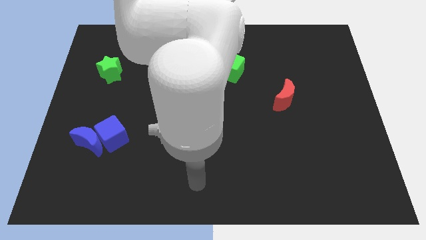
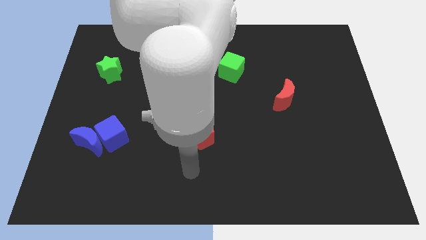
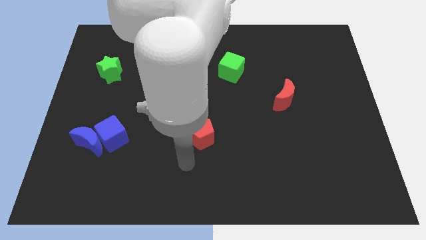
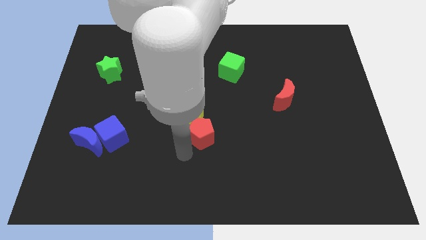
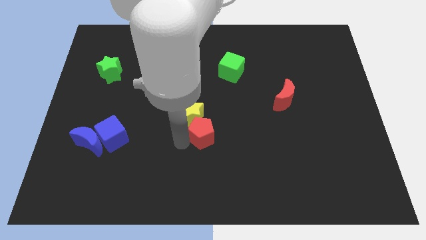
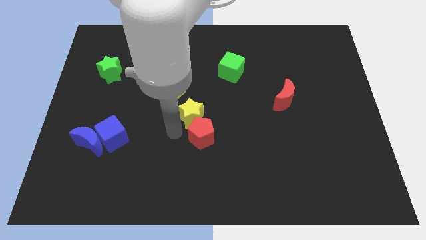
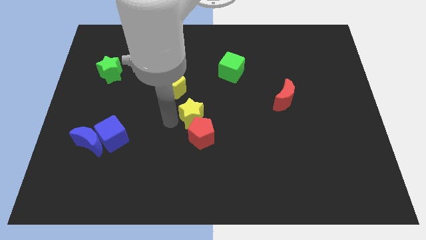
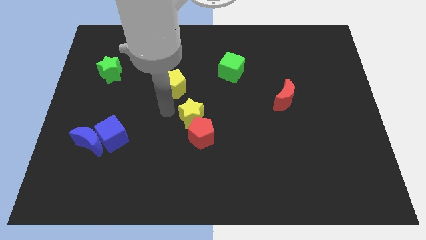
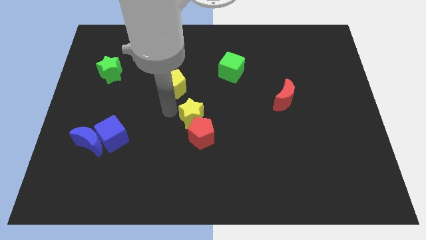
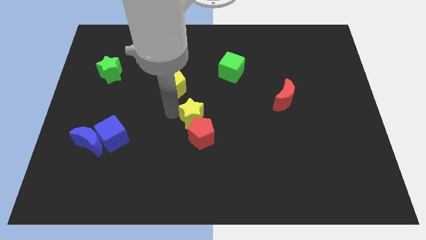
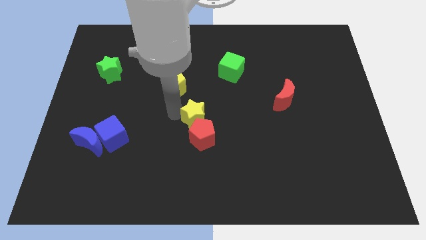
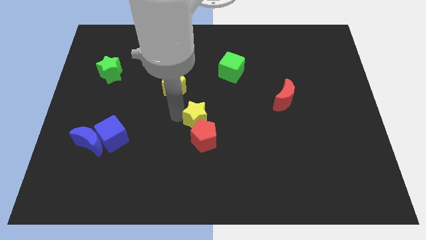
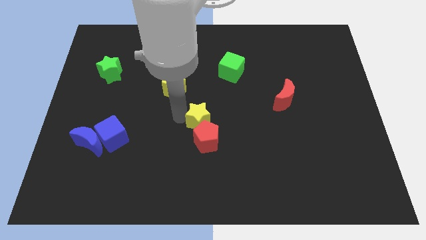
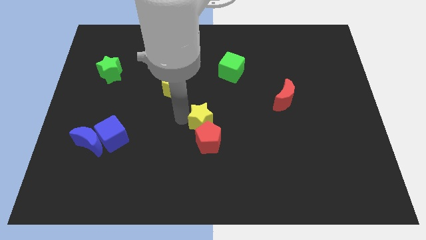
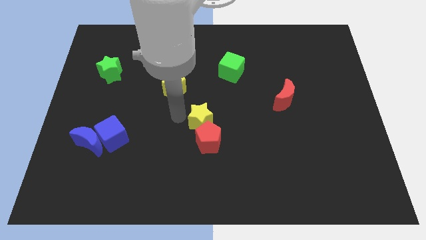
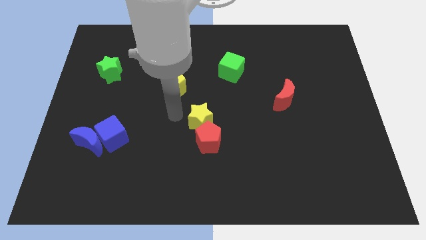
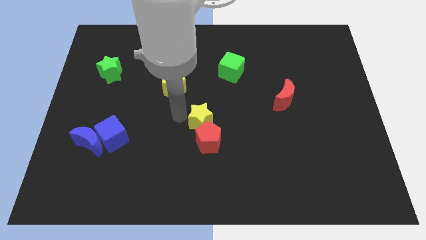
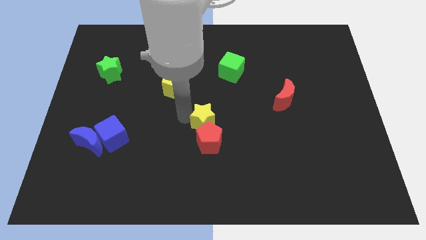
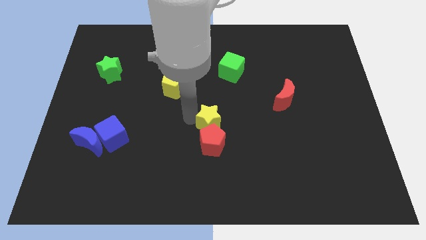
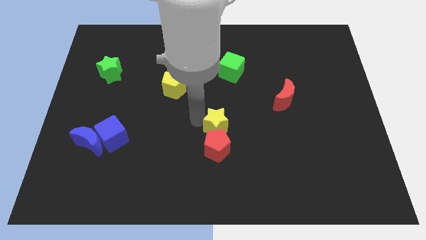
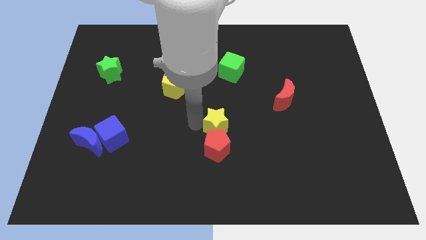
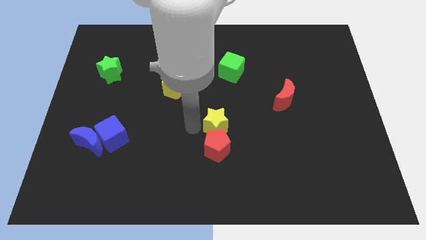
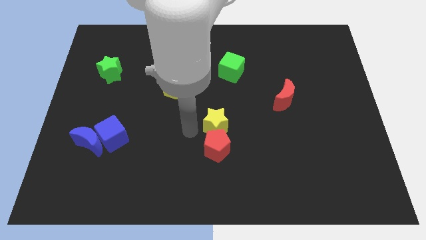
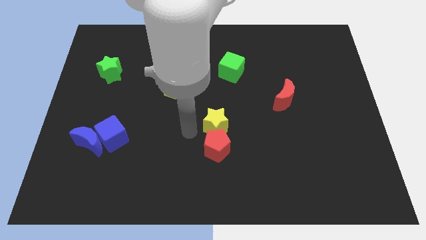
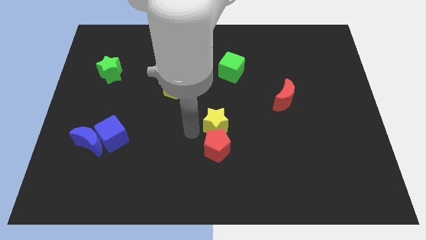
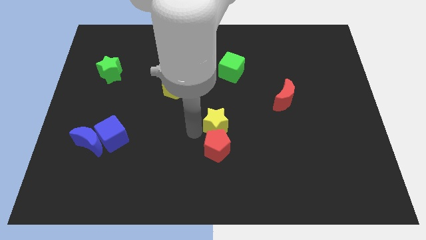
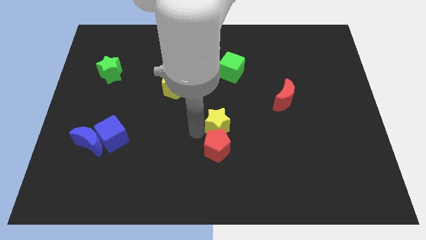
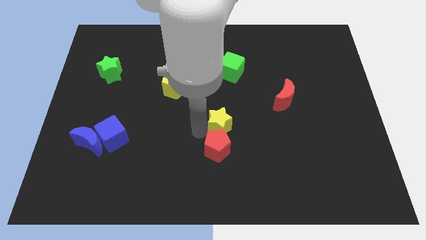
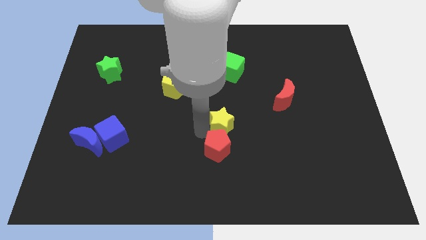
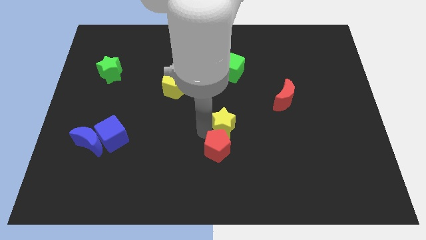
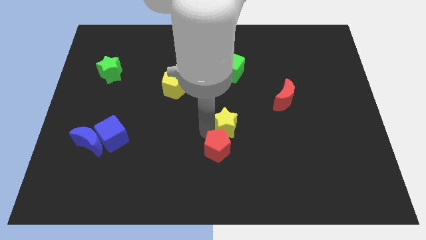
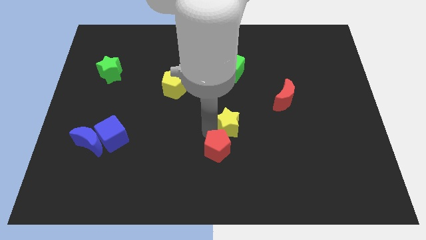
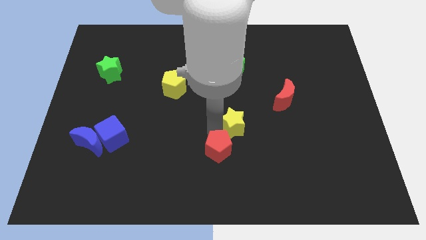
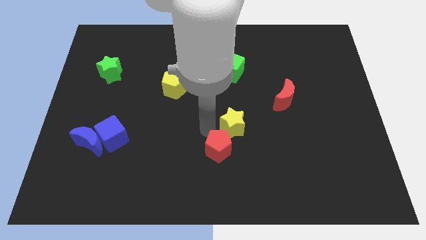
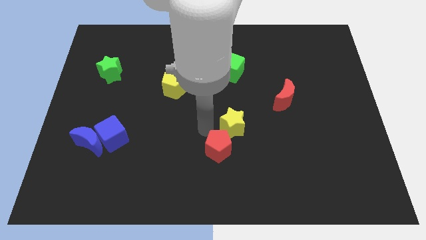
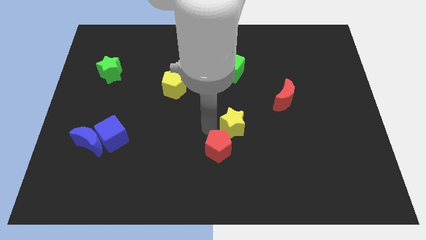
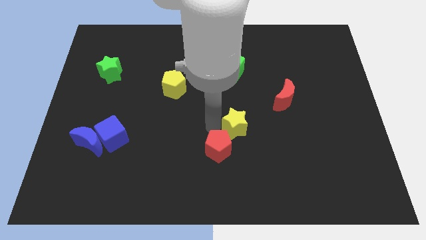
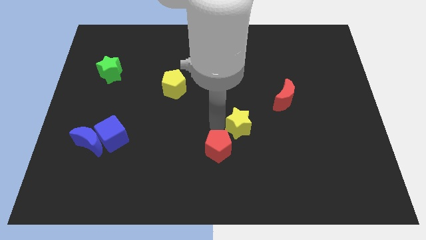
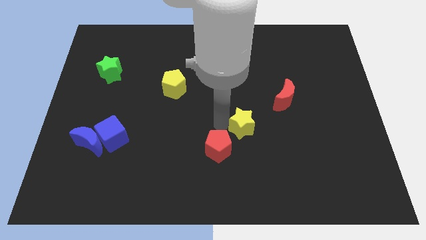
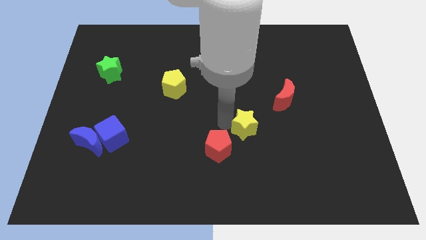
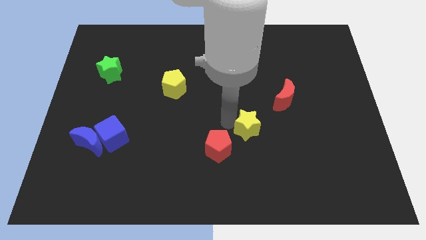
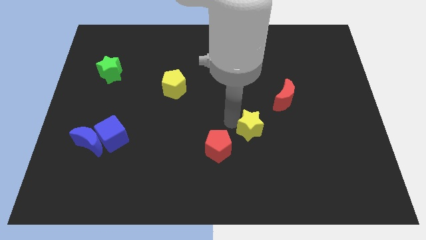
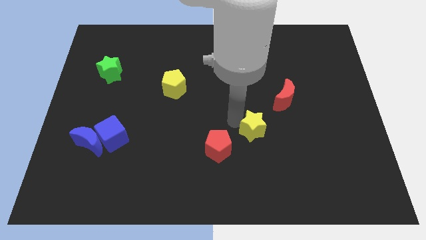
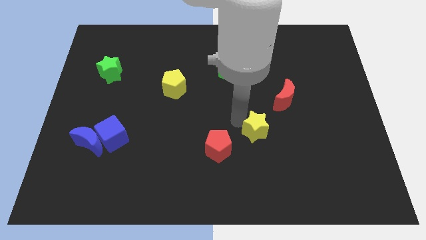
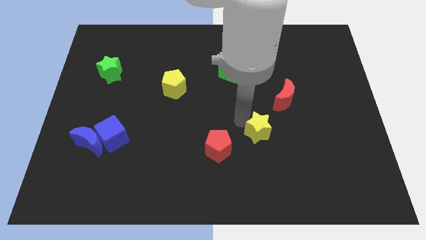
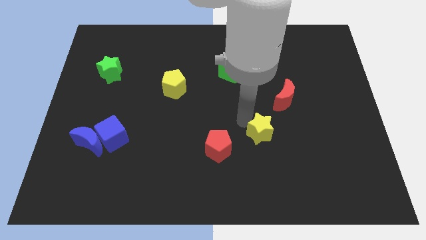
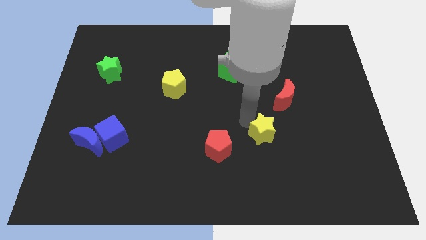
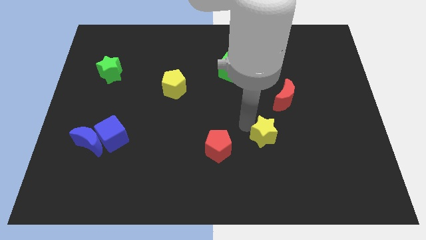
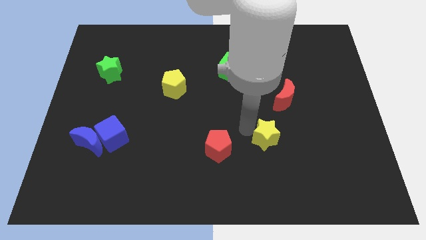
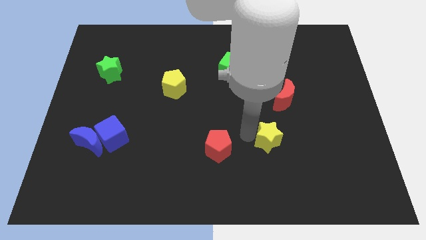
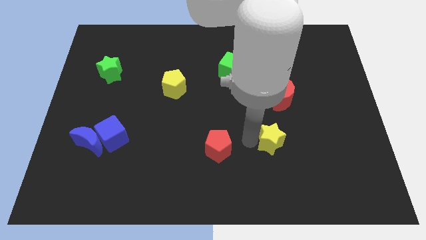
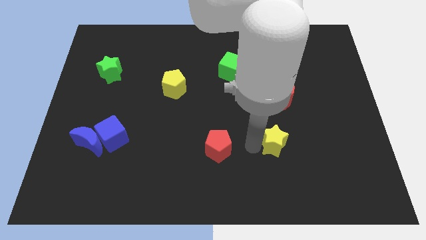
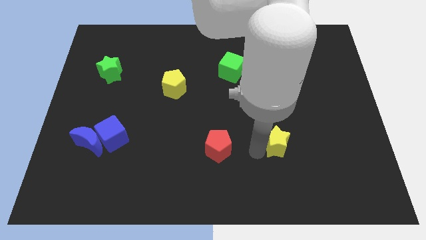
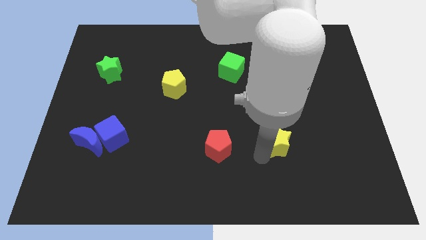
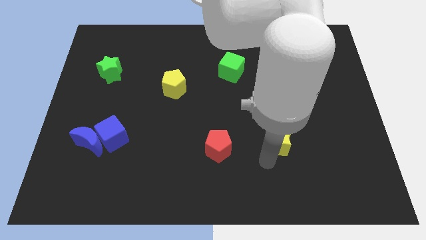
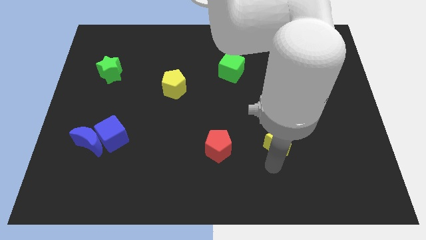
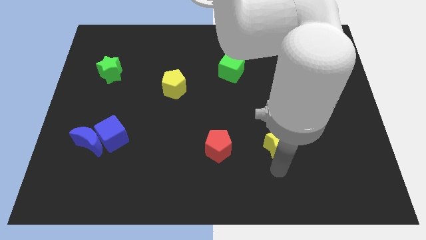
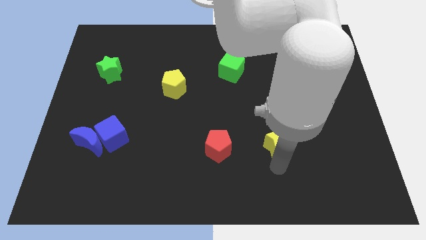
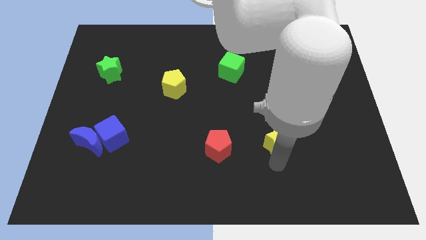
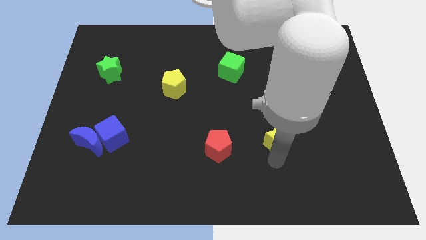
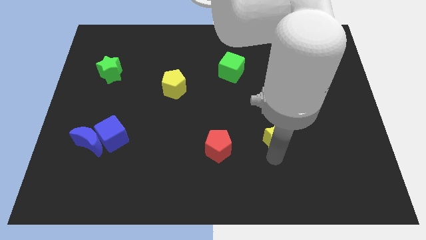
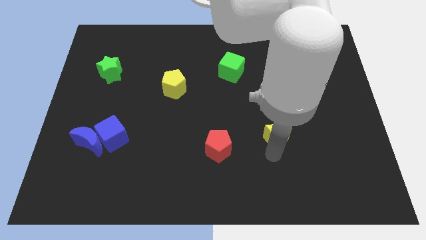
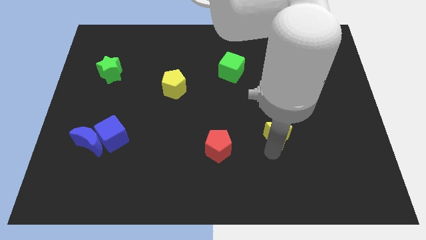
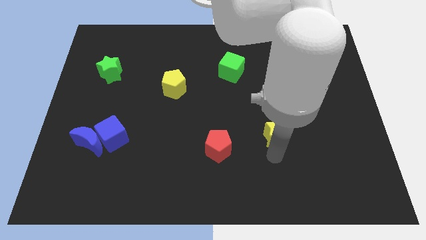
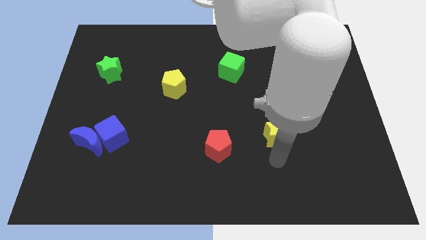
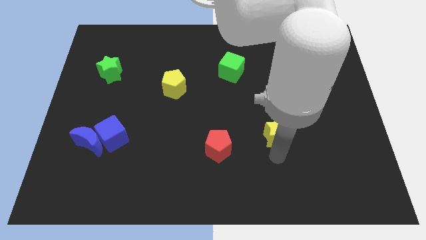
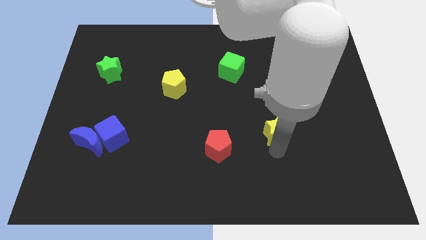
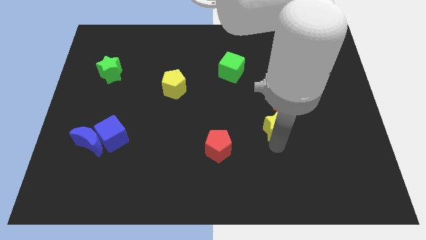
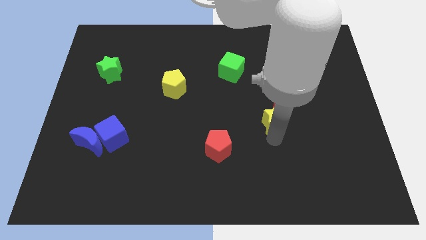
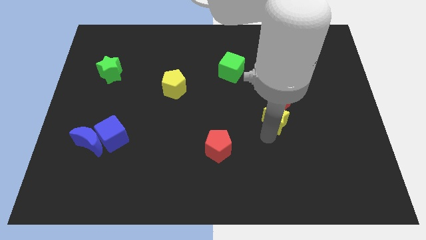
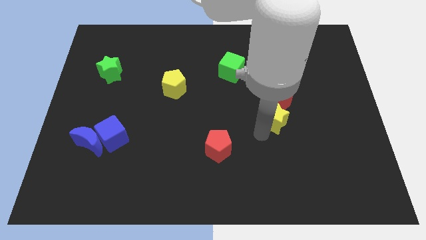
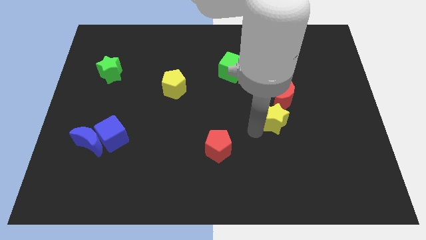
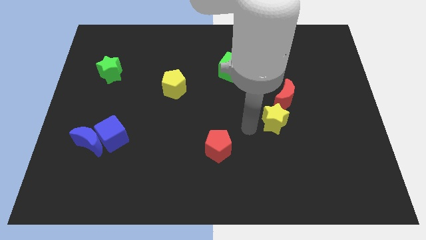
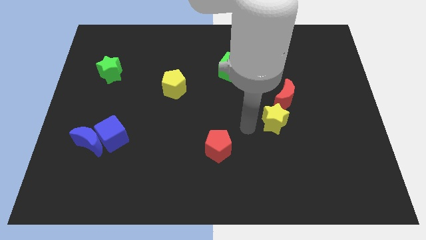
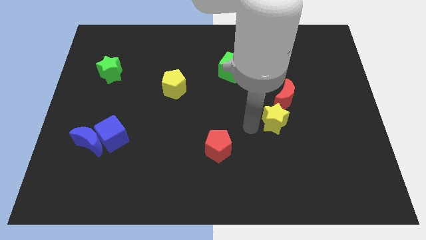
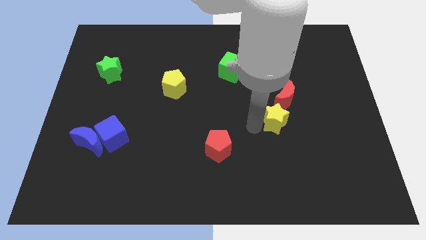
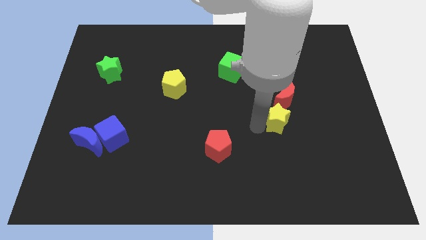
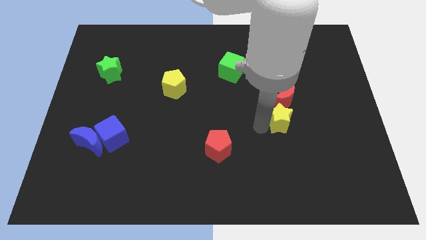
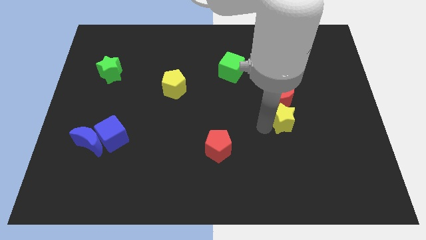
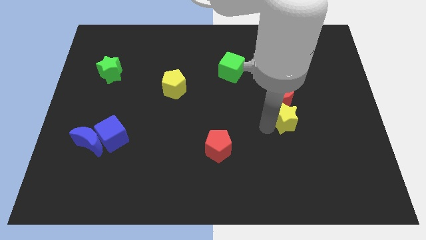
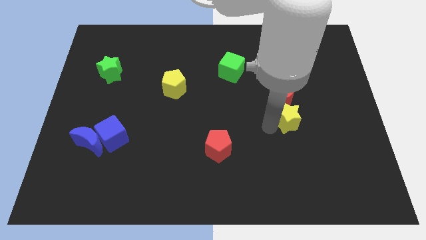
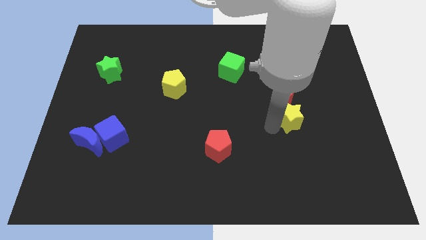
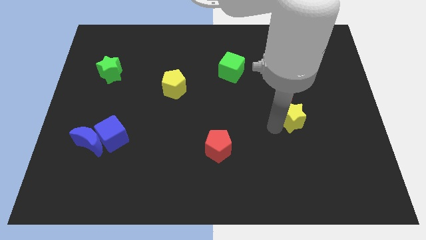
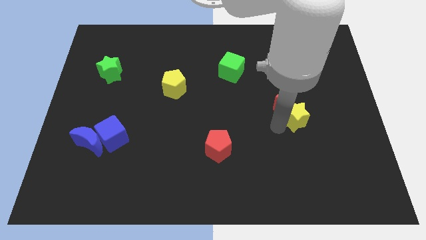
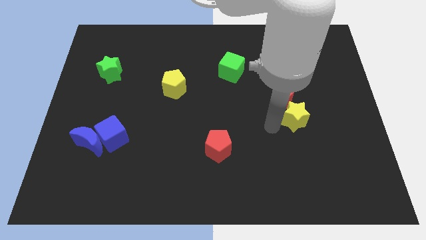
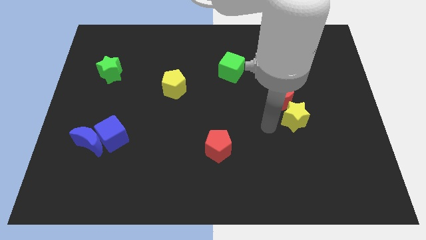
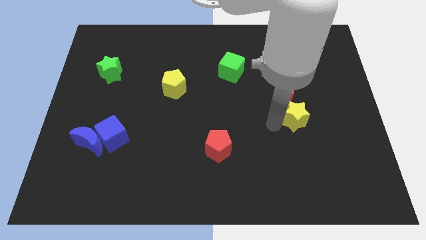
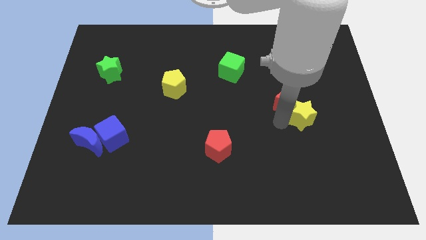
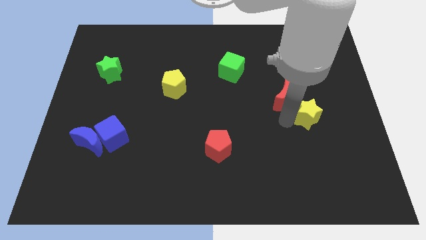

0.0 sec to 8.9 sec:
push the yellow star right of the red moon
